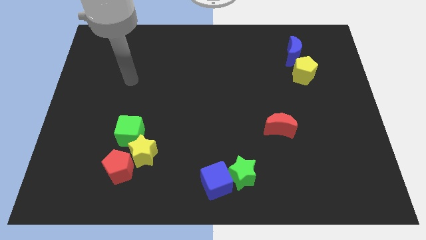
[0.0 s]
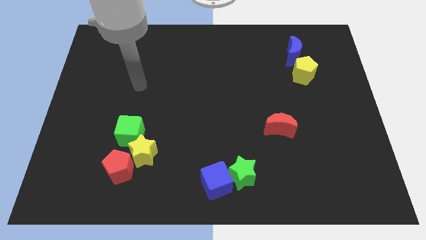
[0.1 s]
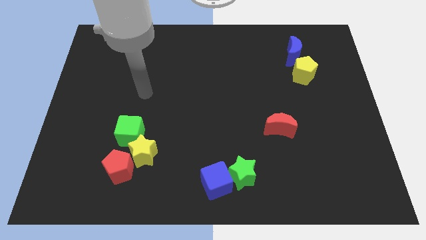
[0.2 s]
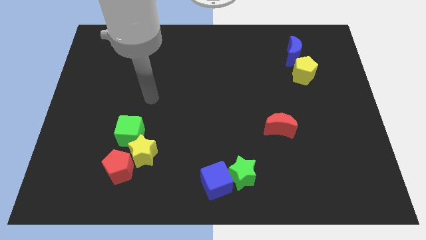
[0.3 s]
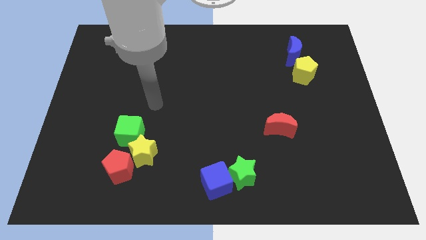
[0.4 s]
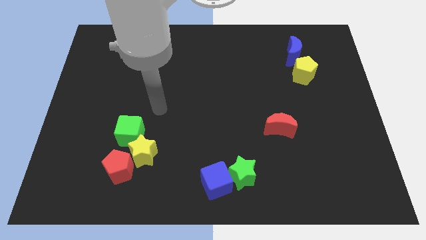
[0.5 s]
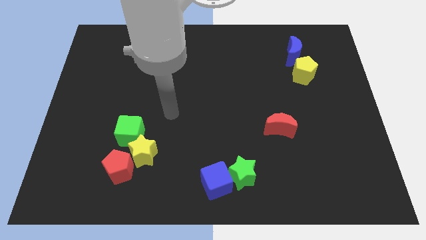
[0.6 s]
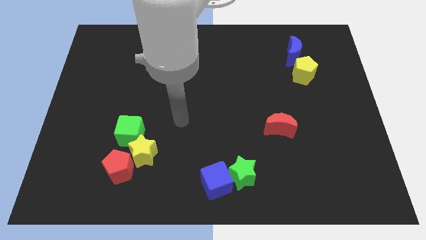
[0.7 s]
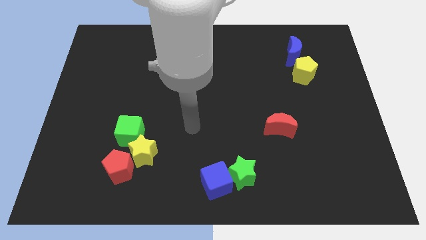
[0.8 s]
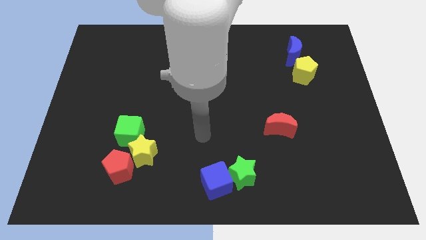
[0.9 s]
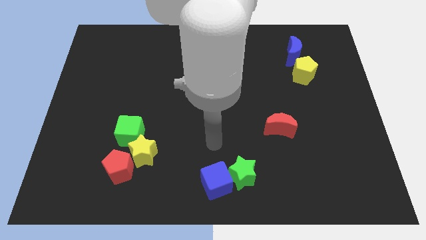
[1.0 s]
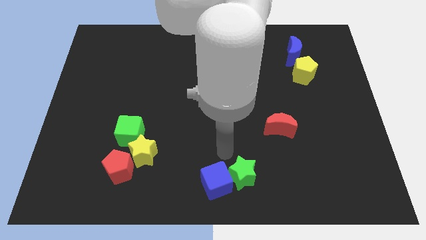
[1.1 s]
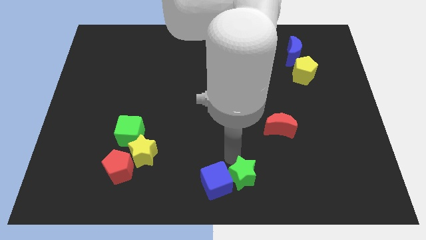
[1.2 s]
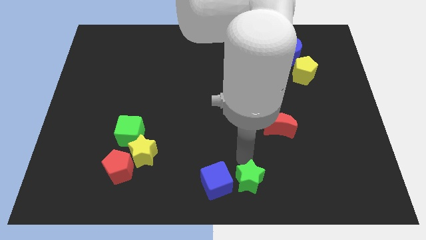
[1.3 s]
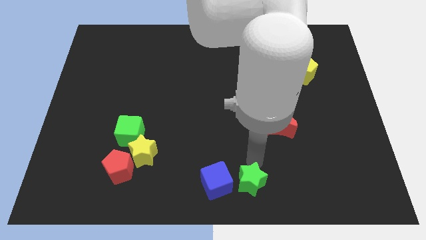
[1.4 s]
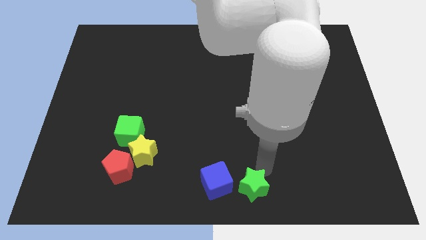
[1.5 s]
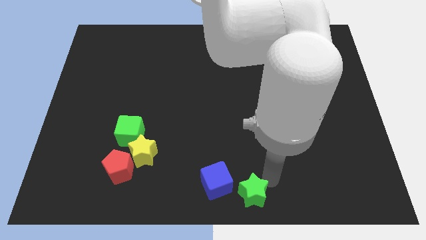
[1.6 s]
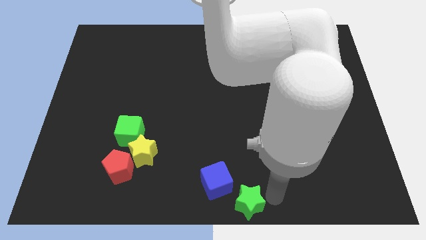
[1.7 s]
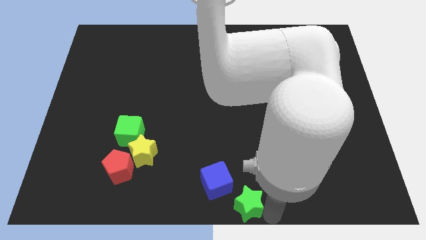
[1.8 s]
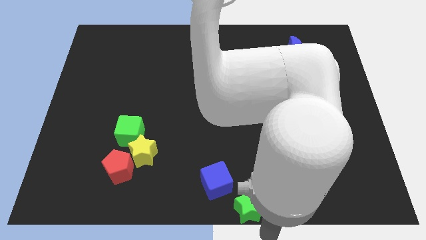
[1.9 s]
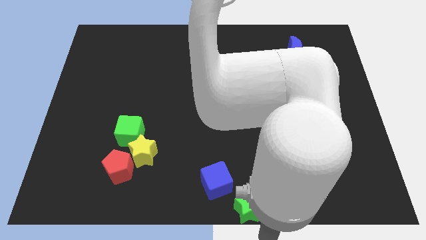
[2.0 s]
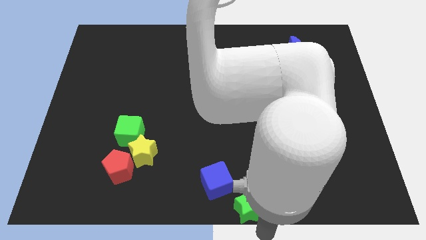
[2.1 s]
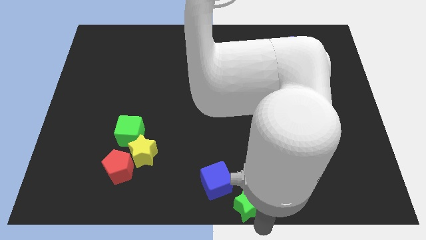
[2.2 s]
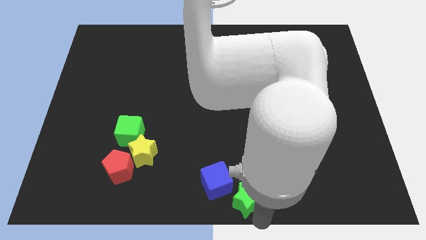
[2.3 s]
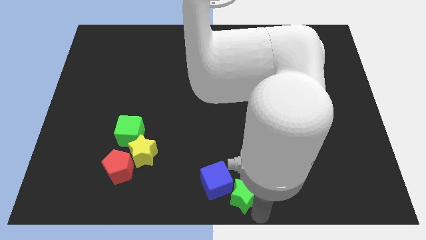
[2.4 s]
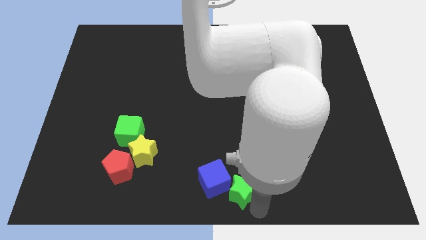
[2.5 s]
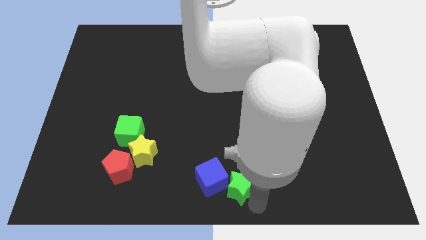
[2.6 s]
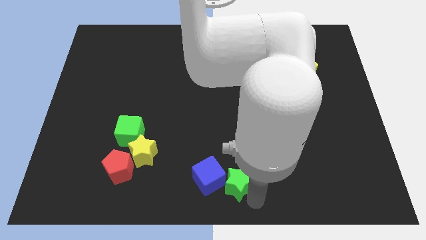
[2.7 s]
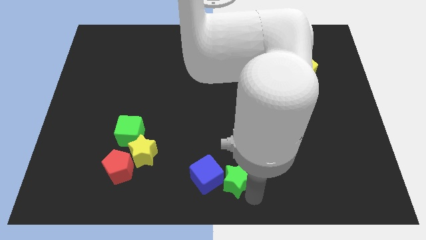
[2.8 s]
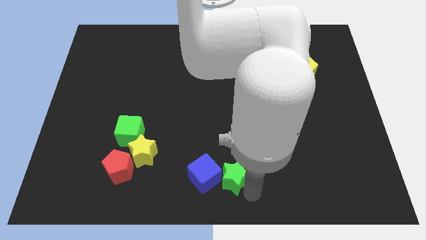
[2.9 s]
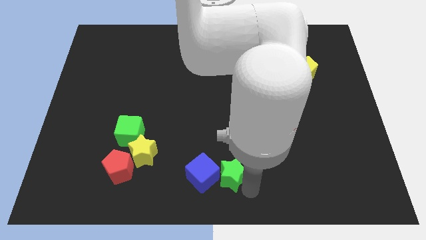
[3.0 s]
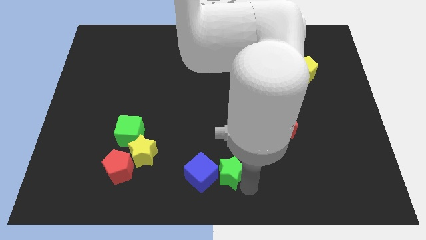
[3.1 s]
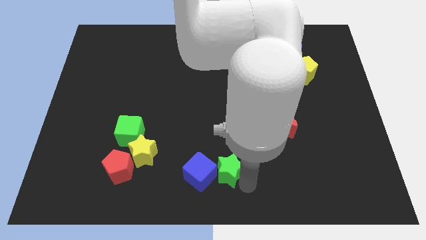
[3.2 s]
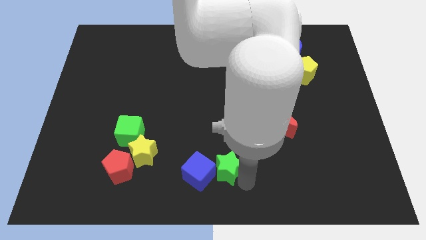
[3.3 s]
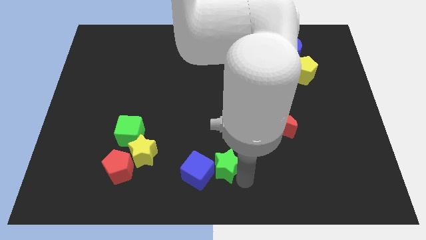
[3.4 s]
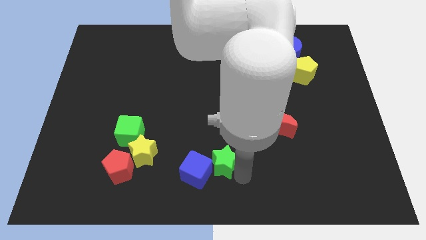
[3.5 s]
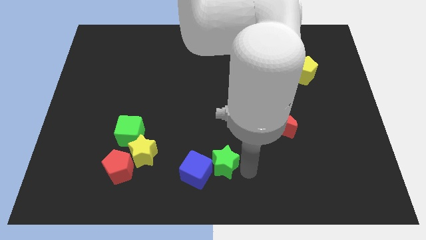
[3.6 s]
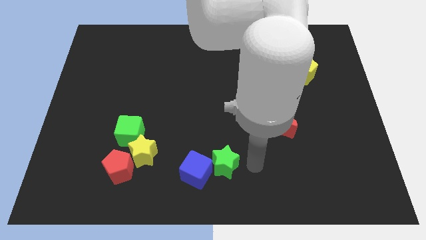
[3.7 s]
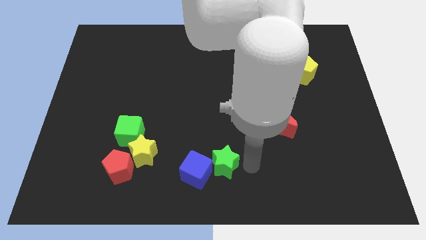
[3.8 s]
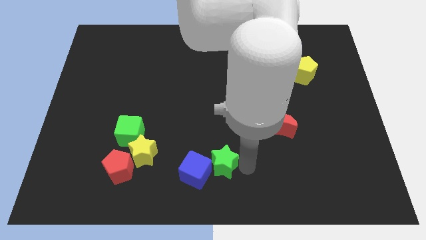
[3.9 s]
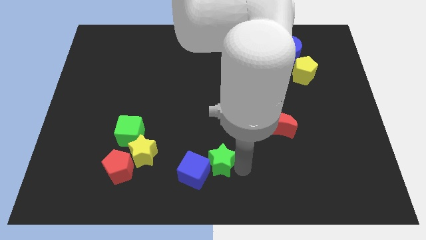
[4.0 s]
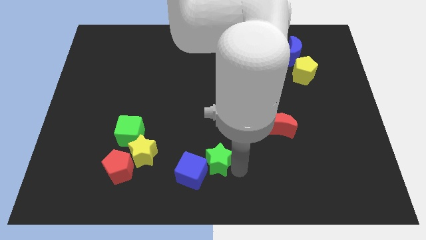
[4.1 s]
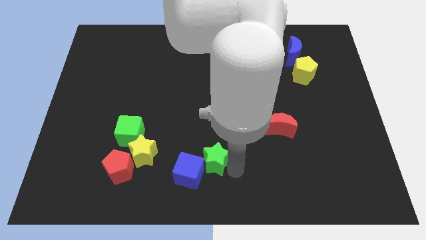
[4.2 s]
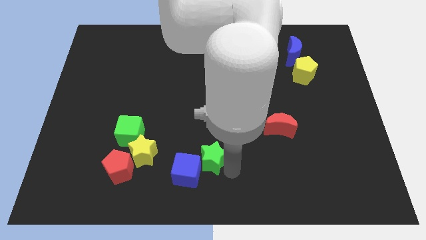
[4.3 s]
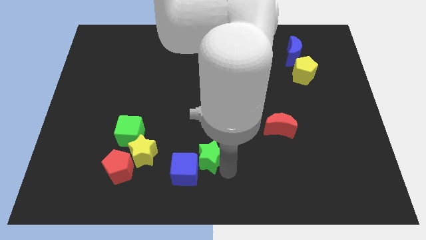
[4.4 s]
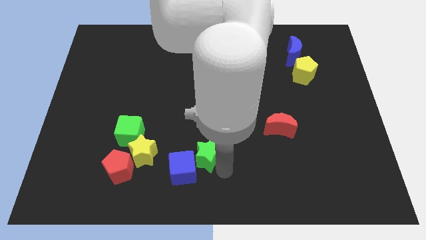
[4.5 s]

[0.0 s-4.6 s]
slightly slide the green star to the left

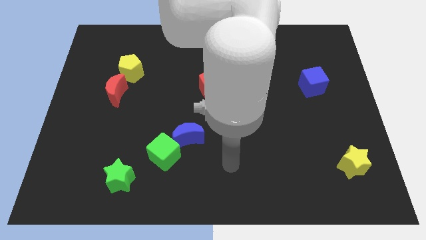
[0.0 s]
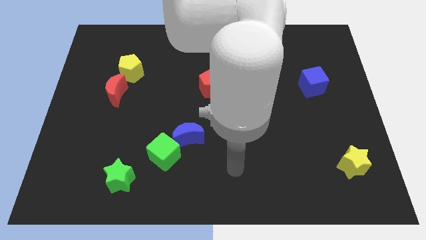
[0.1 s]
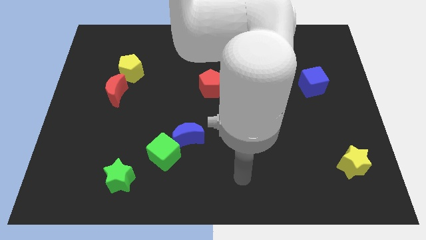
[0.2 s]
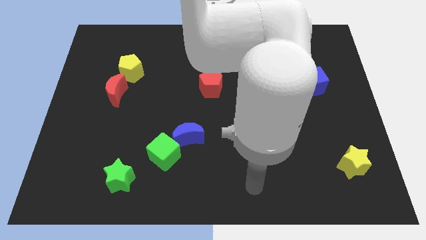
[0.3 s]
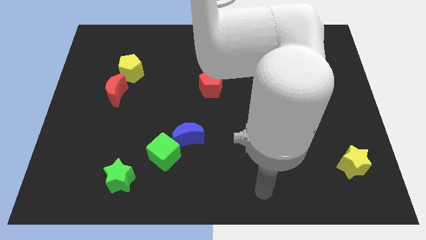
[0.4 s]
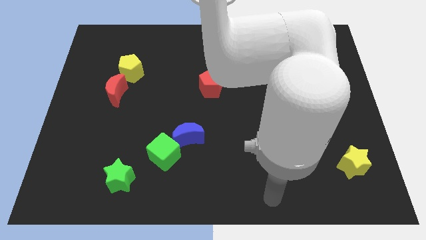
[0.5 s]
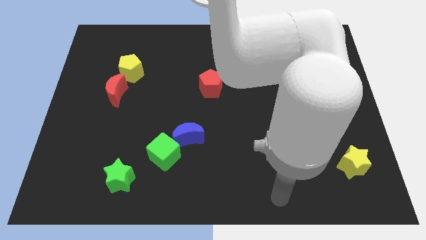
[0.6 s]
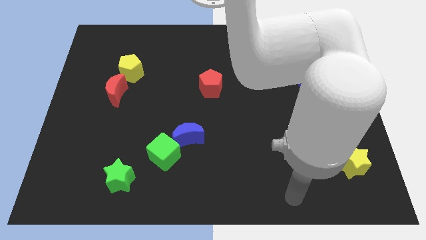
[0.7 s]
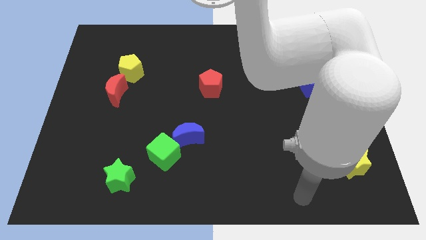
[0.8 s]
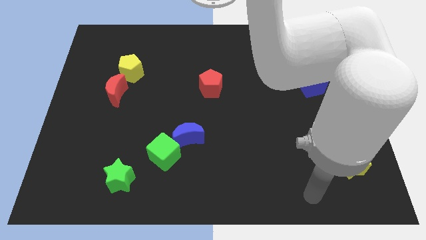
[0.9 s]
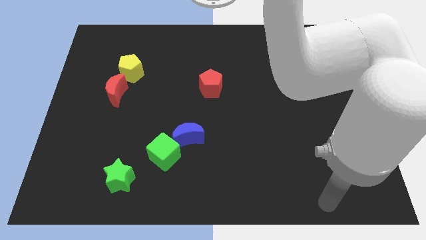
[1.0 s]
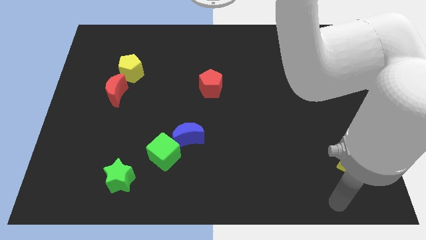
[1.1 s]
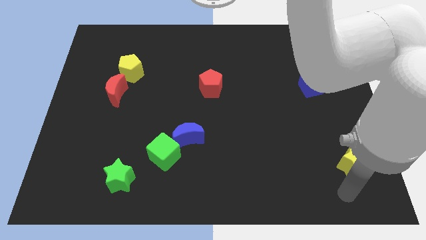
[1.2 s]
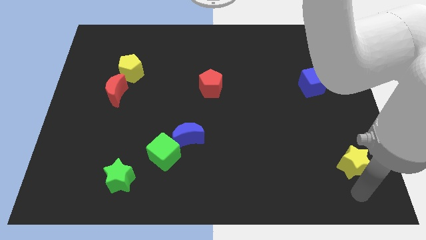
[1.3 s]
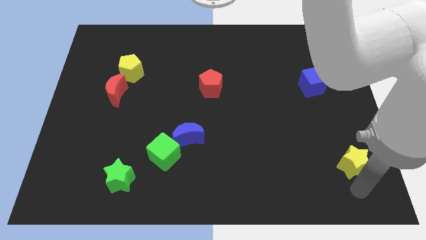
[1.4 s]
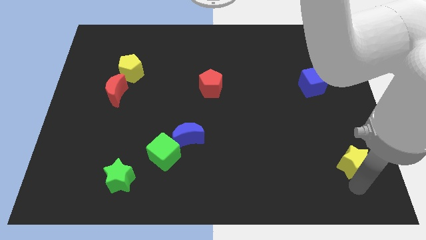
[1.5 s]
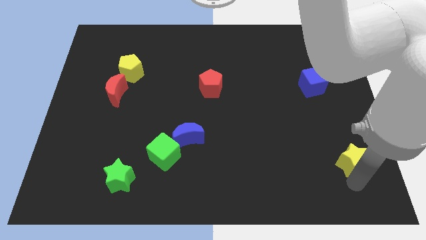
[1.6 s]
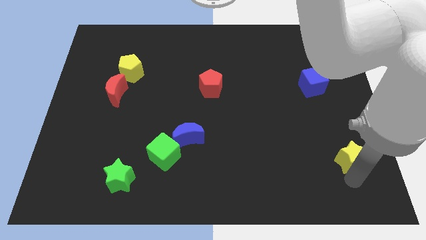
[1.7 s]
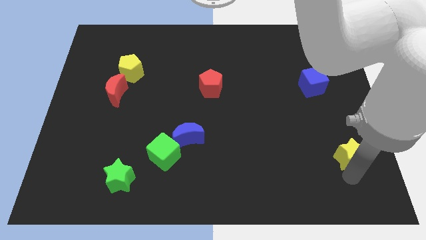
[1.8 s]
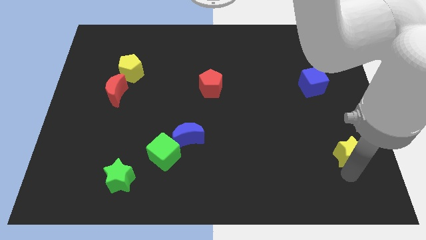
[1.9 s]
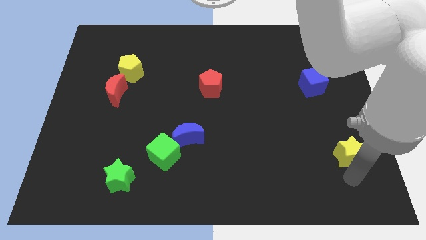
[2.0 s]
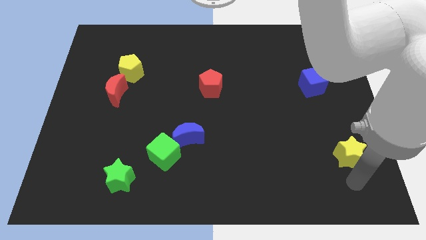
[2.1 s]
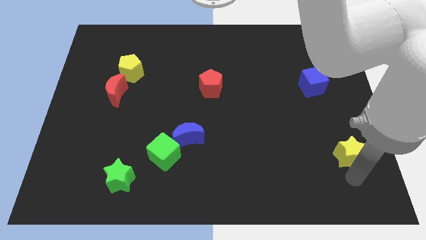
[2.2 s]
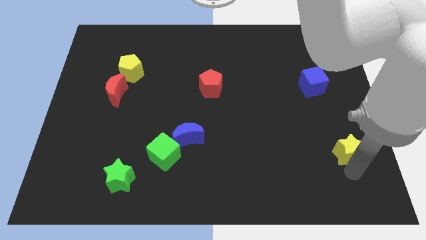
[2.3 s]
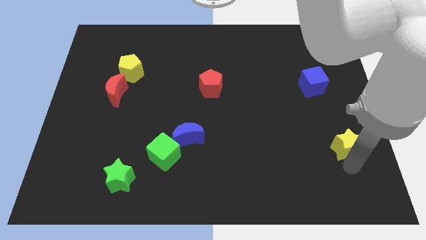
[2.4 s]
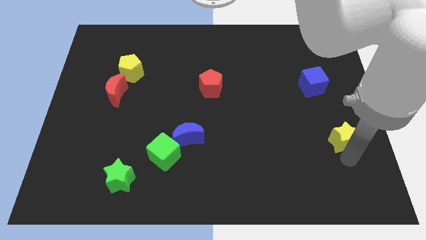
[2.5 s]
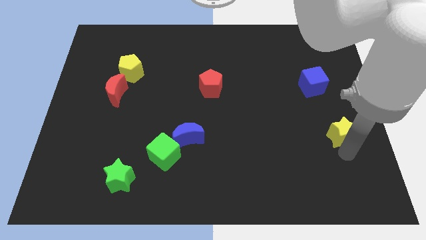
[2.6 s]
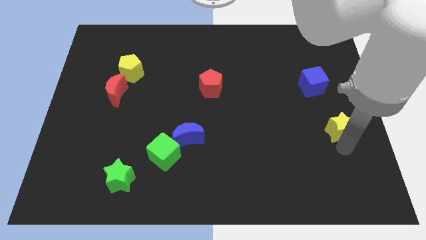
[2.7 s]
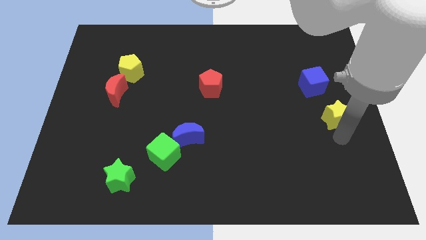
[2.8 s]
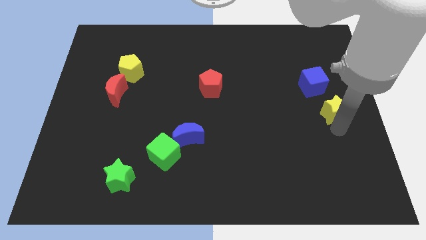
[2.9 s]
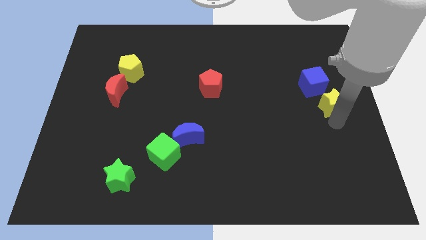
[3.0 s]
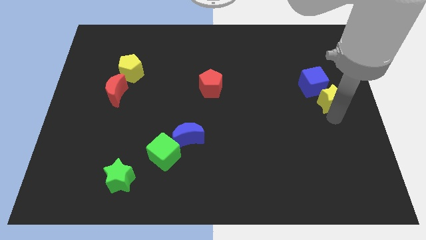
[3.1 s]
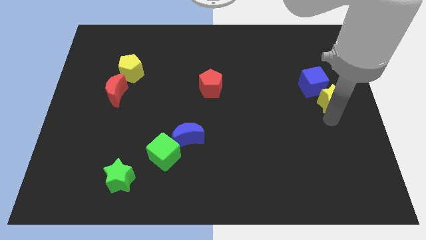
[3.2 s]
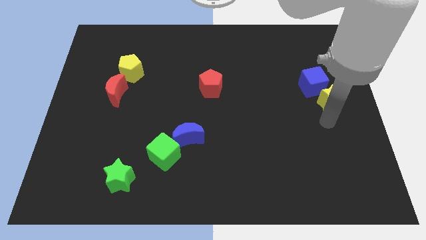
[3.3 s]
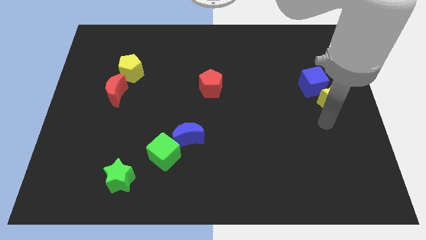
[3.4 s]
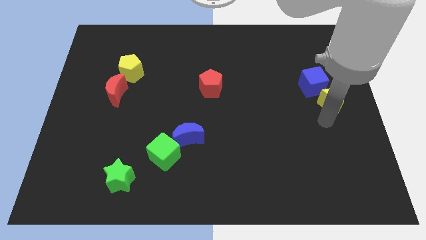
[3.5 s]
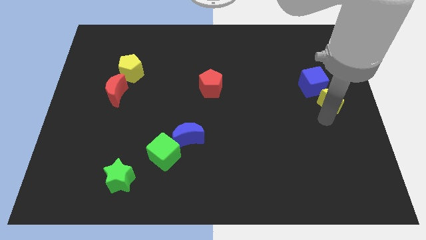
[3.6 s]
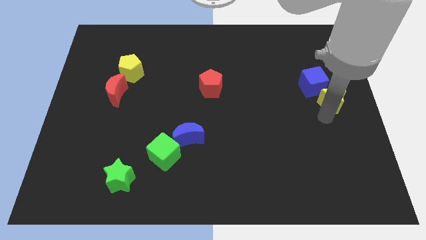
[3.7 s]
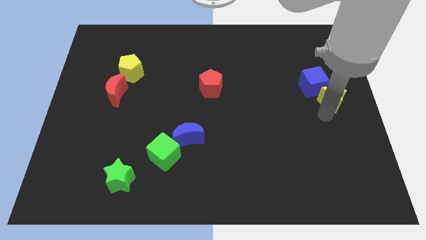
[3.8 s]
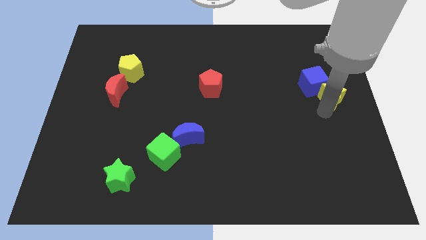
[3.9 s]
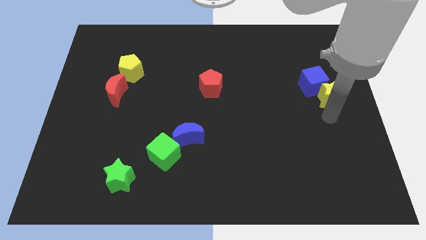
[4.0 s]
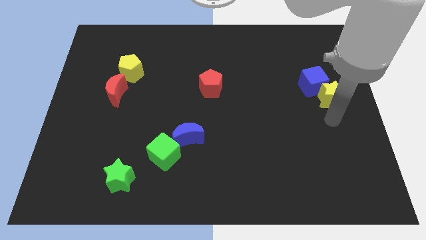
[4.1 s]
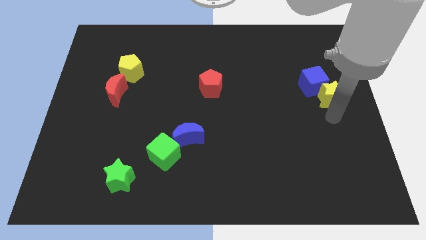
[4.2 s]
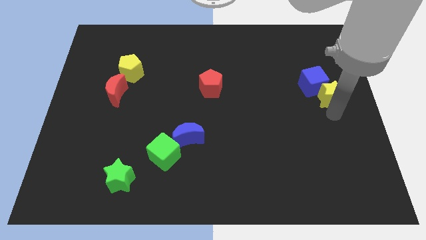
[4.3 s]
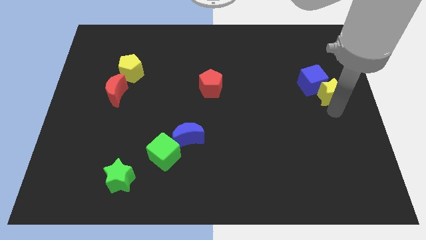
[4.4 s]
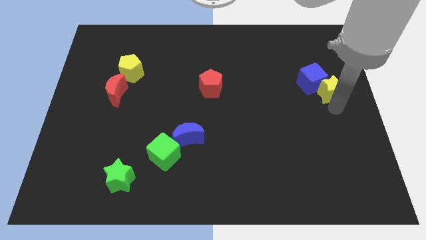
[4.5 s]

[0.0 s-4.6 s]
push the yellow star upwards
